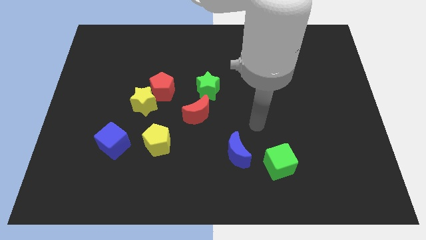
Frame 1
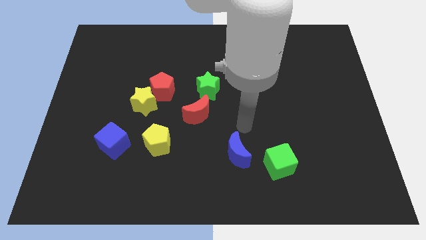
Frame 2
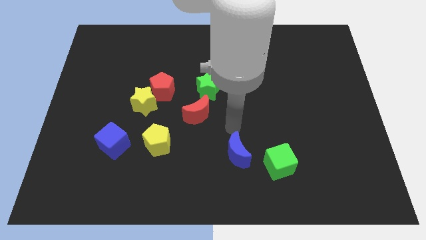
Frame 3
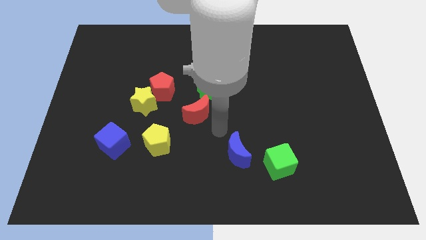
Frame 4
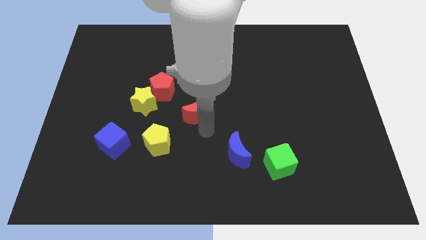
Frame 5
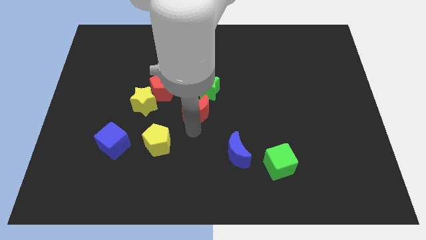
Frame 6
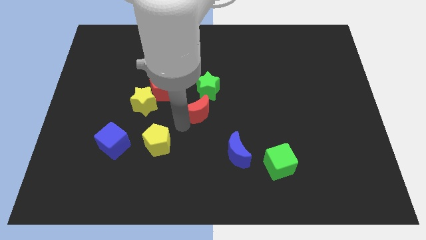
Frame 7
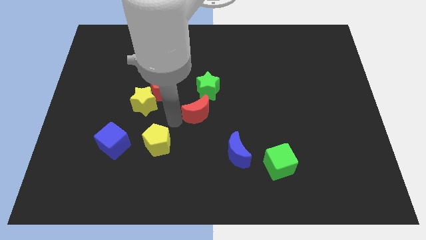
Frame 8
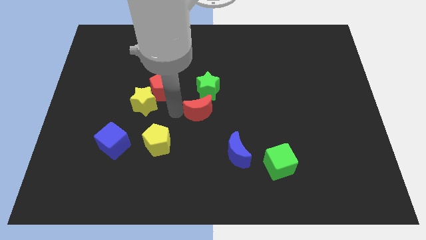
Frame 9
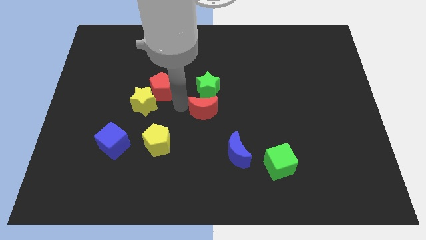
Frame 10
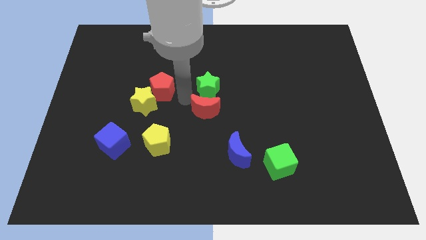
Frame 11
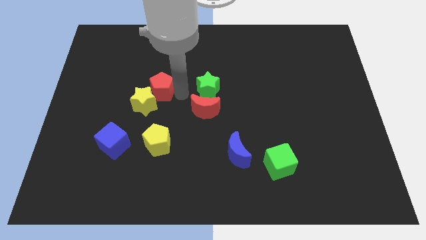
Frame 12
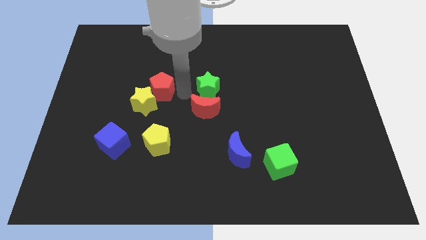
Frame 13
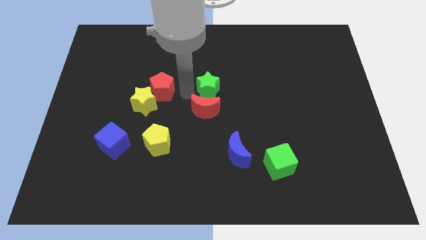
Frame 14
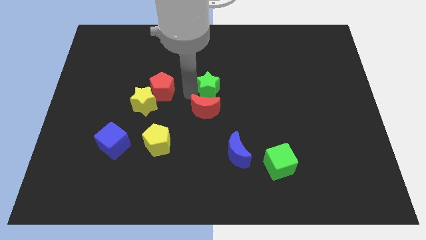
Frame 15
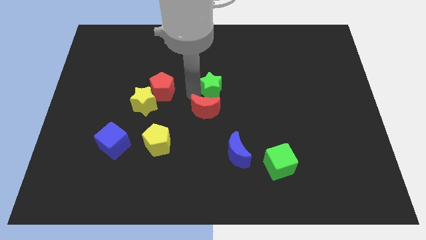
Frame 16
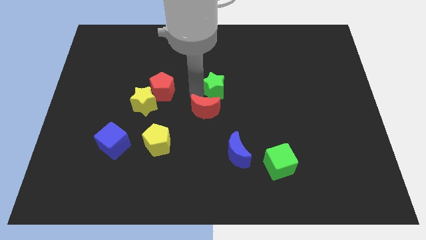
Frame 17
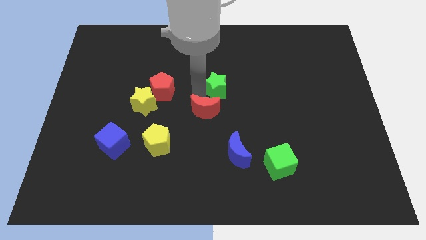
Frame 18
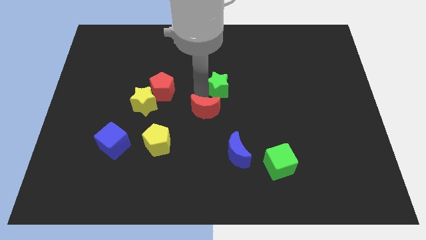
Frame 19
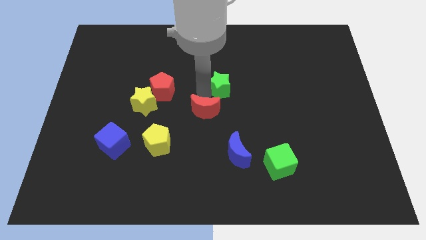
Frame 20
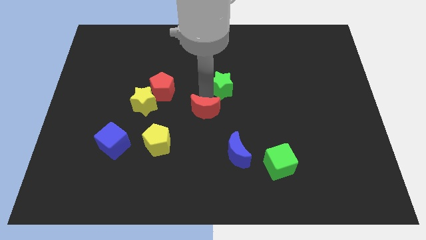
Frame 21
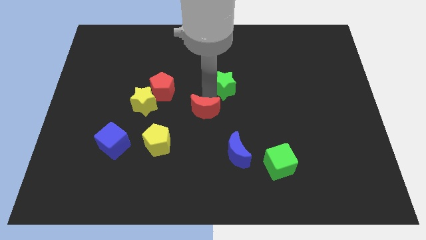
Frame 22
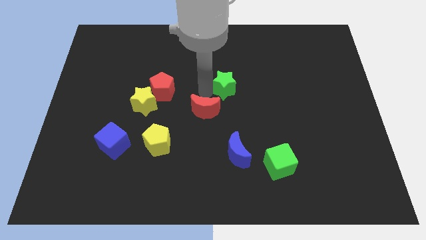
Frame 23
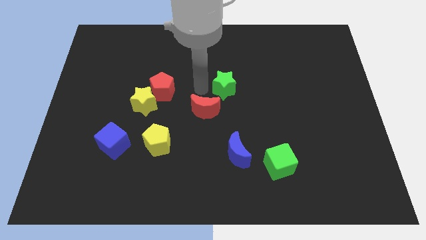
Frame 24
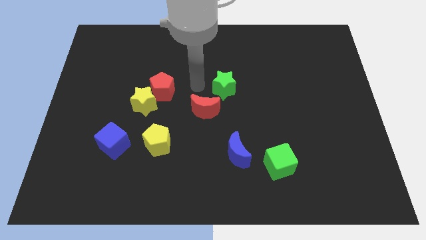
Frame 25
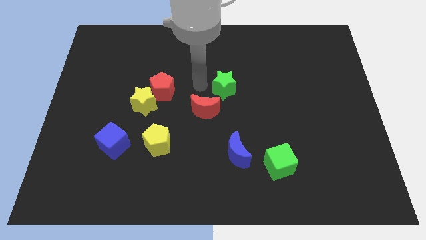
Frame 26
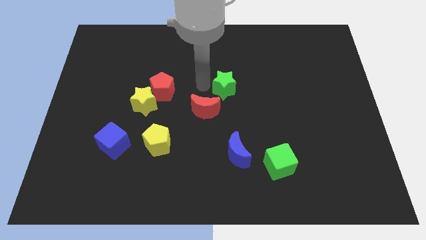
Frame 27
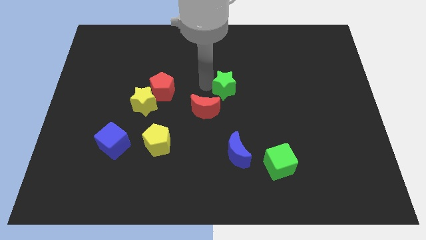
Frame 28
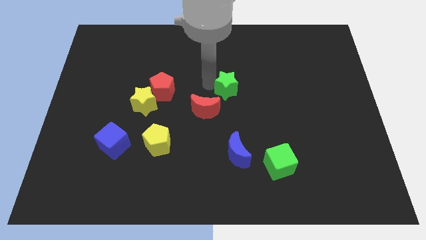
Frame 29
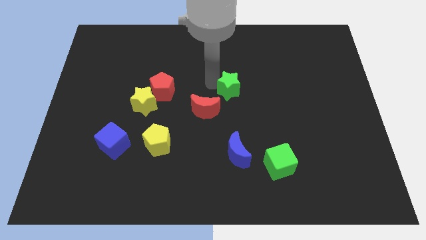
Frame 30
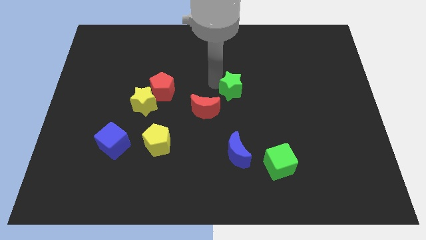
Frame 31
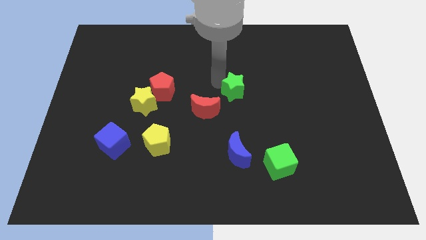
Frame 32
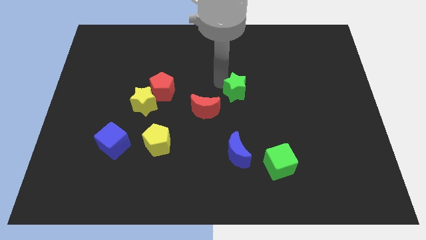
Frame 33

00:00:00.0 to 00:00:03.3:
slightly move the green star to the right

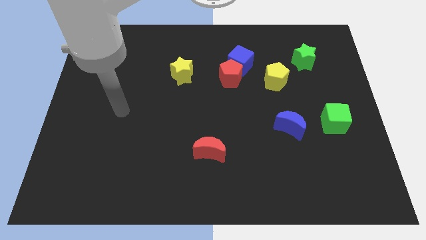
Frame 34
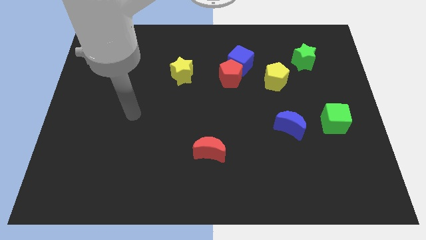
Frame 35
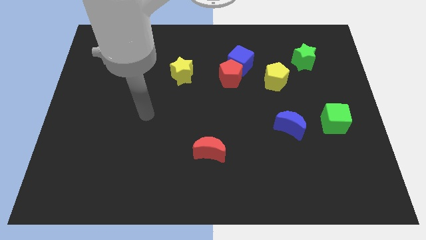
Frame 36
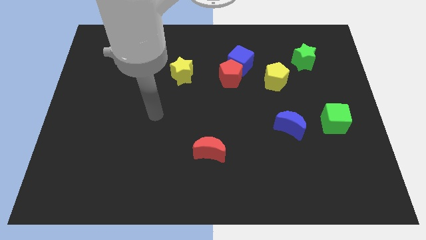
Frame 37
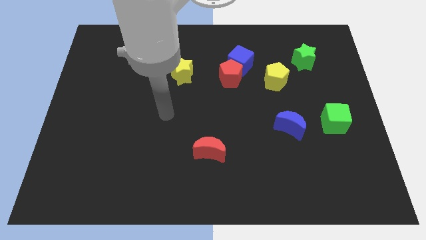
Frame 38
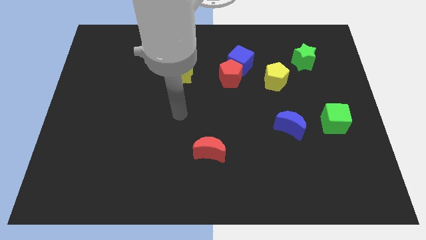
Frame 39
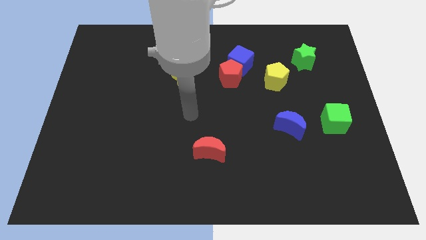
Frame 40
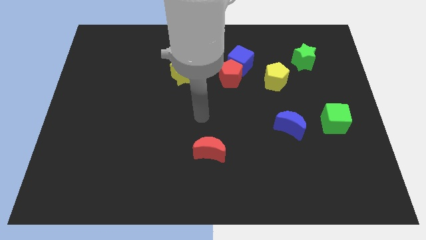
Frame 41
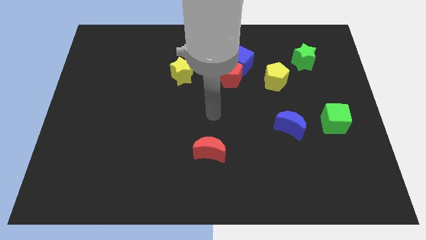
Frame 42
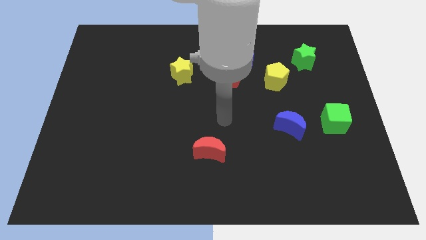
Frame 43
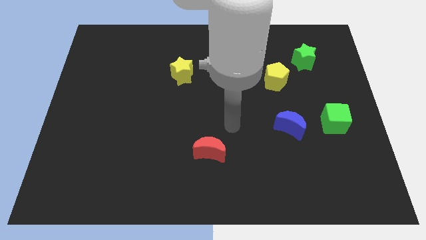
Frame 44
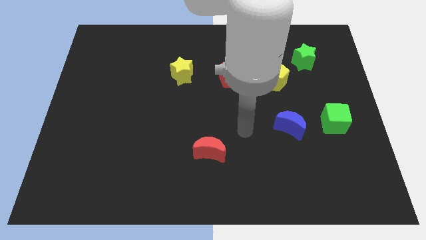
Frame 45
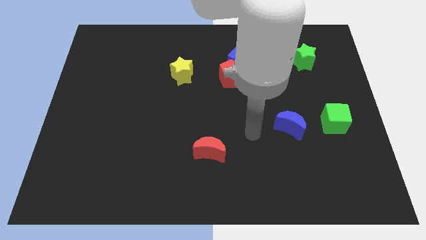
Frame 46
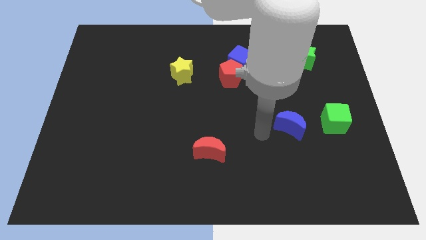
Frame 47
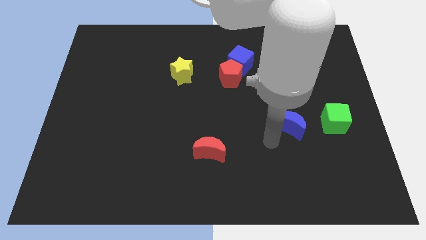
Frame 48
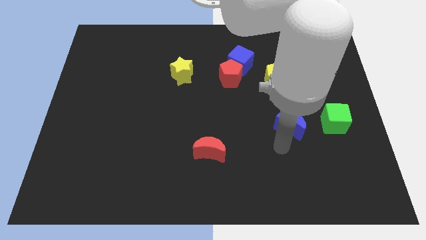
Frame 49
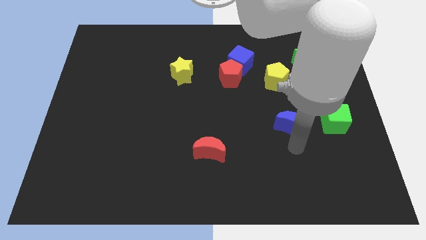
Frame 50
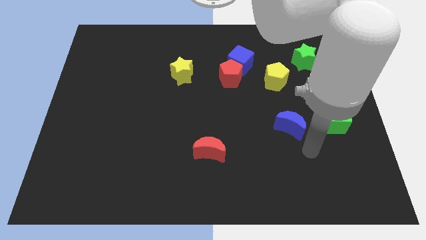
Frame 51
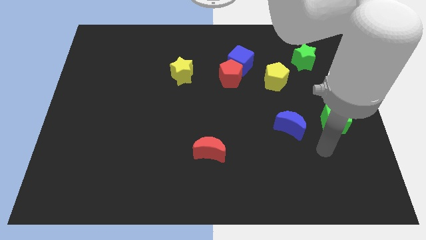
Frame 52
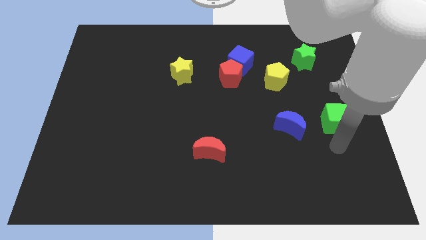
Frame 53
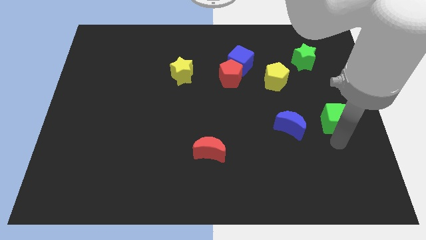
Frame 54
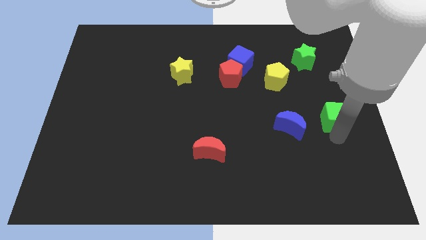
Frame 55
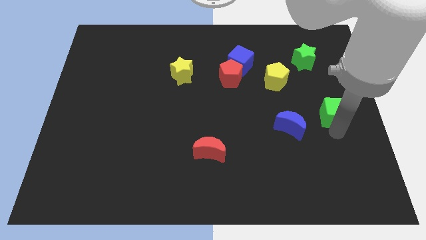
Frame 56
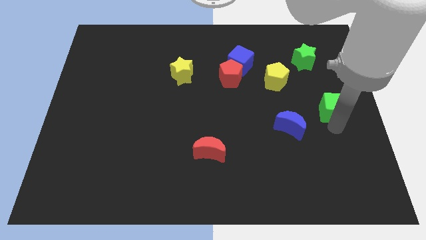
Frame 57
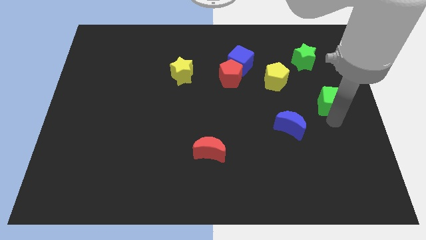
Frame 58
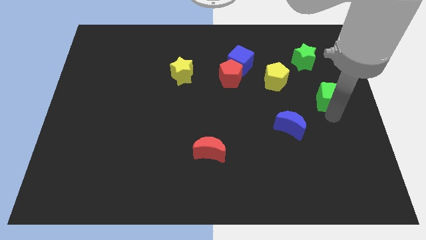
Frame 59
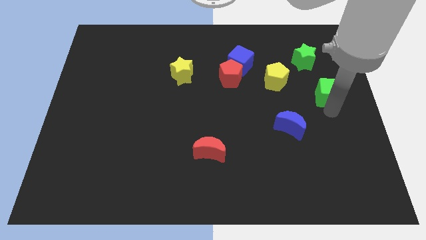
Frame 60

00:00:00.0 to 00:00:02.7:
slightly push the green cube upwards

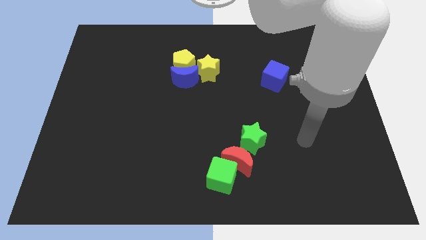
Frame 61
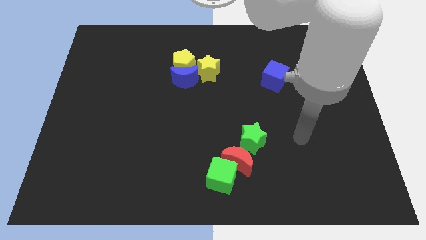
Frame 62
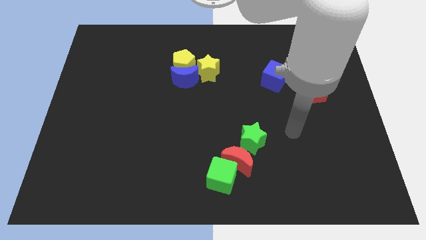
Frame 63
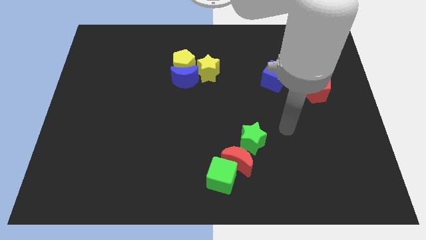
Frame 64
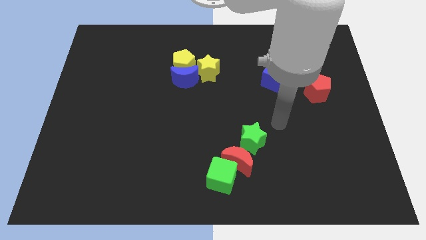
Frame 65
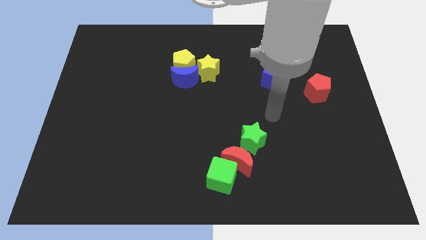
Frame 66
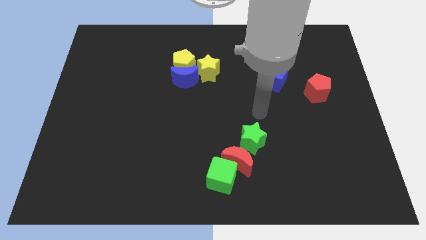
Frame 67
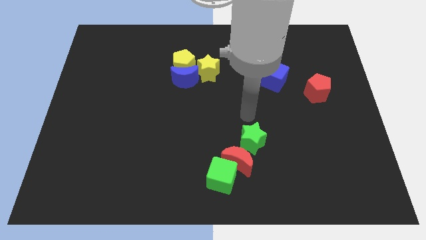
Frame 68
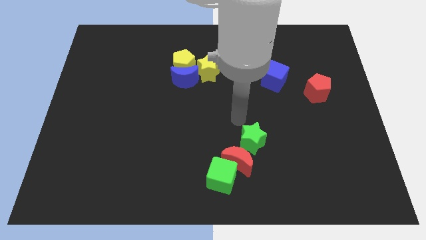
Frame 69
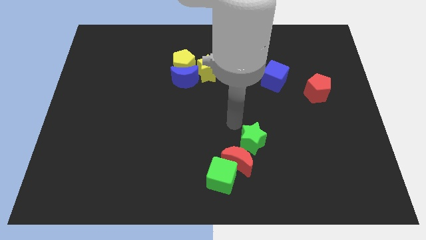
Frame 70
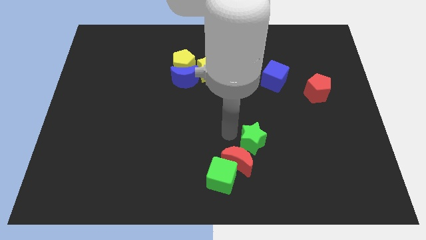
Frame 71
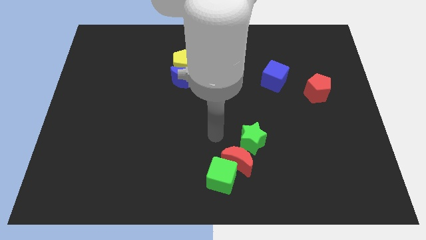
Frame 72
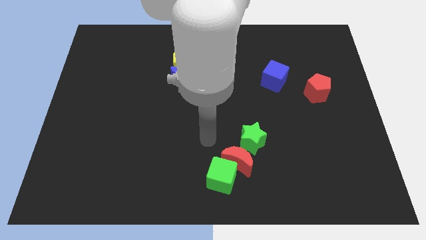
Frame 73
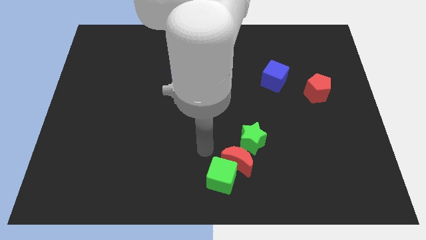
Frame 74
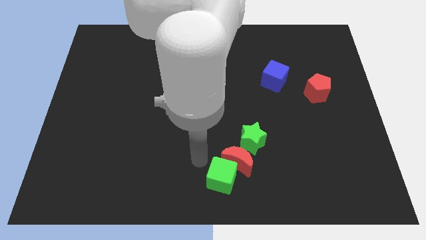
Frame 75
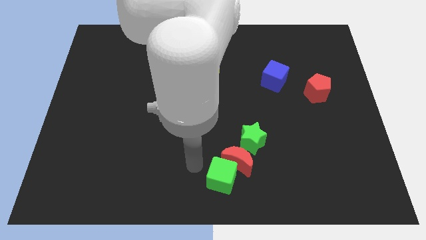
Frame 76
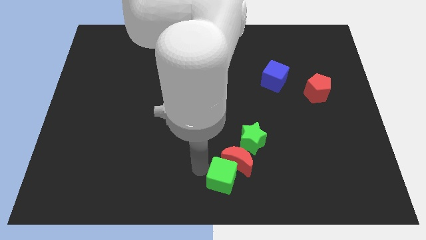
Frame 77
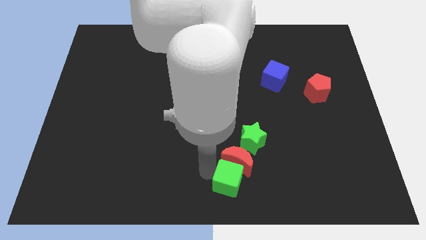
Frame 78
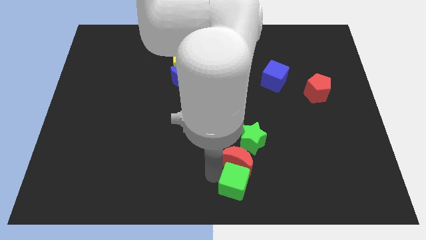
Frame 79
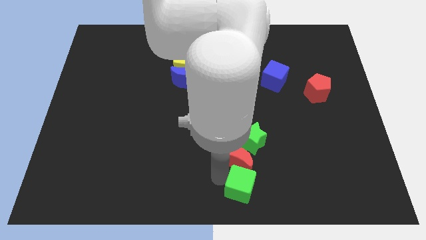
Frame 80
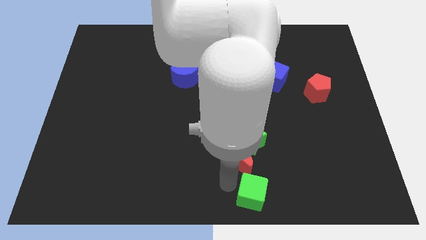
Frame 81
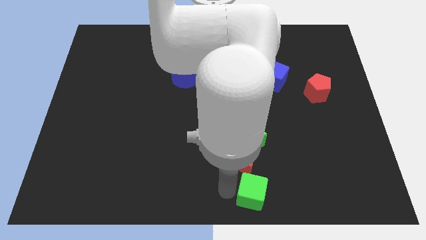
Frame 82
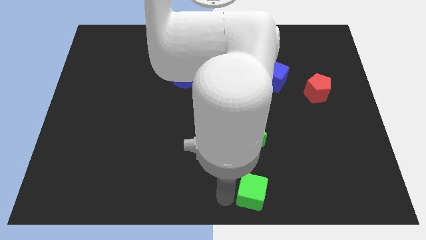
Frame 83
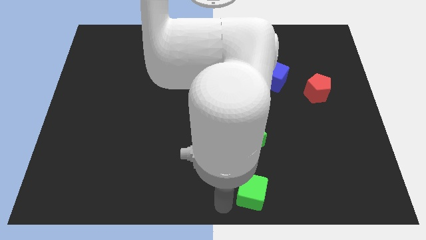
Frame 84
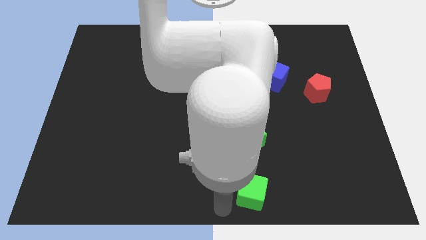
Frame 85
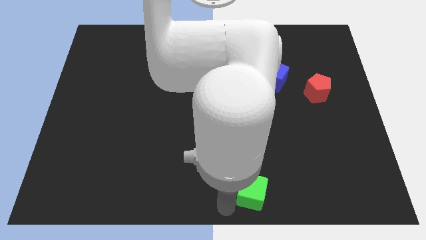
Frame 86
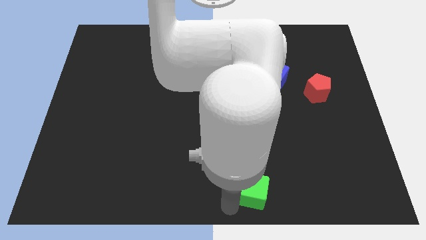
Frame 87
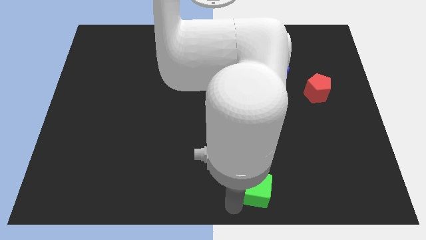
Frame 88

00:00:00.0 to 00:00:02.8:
slide the green cube to the right a little bit
